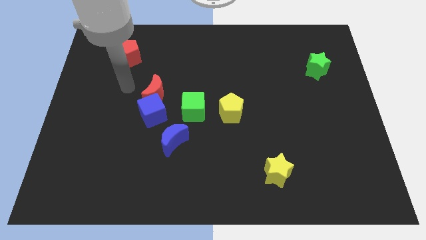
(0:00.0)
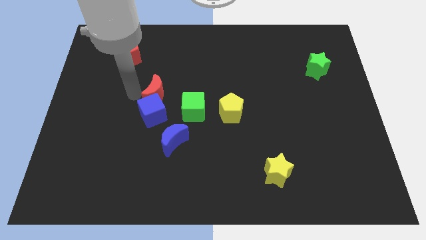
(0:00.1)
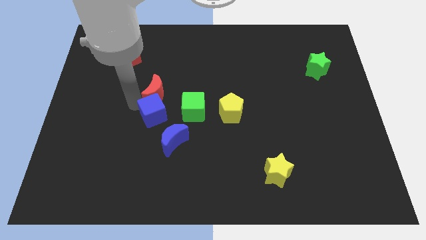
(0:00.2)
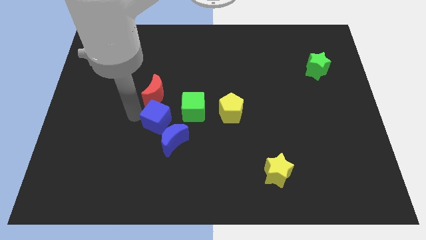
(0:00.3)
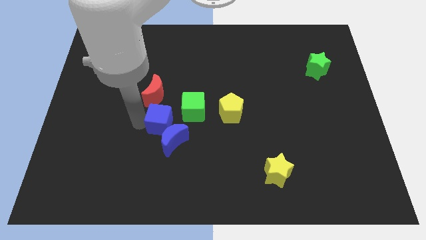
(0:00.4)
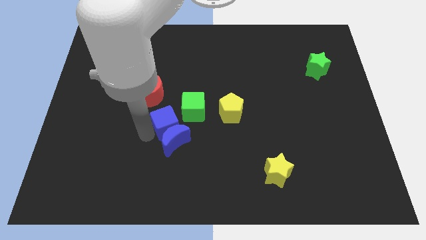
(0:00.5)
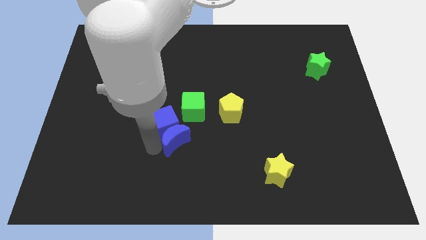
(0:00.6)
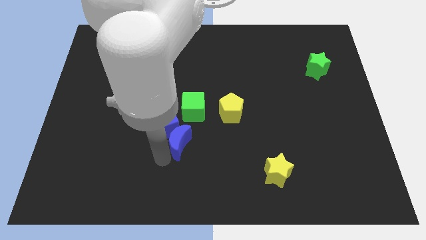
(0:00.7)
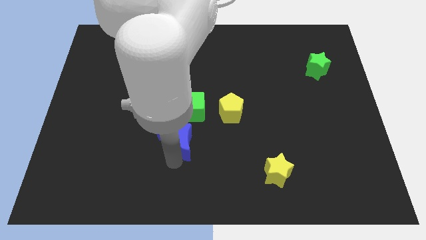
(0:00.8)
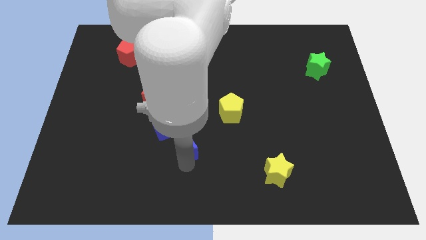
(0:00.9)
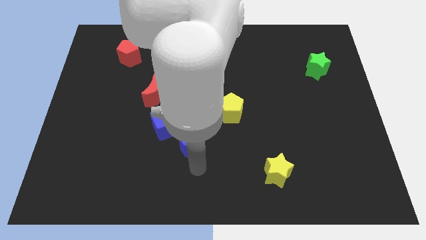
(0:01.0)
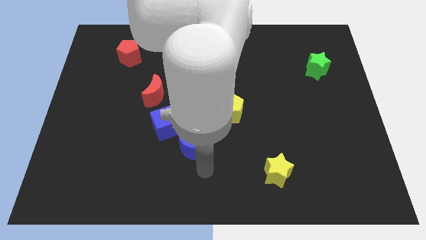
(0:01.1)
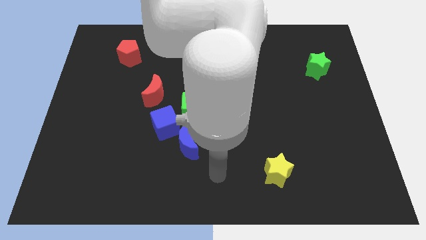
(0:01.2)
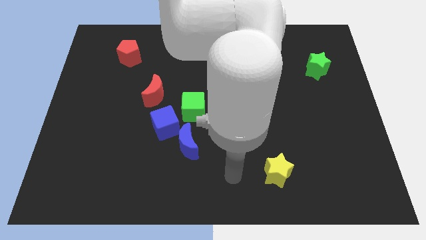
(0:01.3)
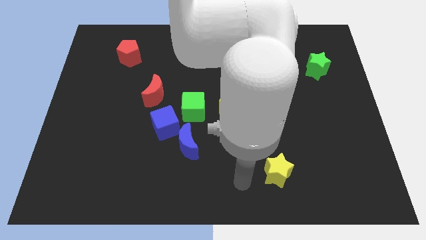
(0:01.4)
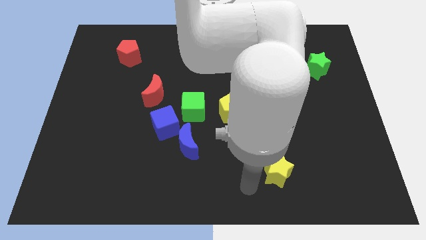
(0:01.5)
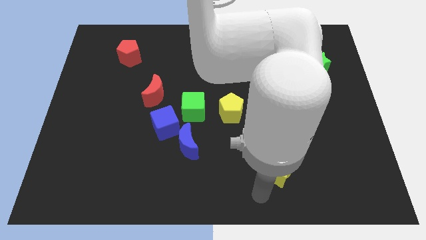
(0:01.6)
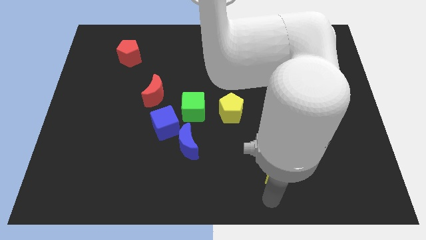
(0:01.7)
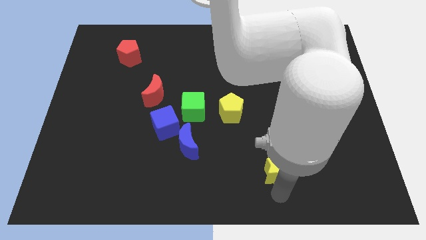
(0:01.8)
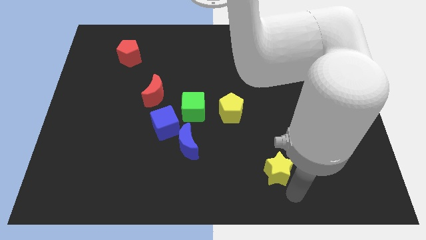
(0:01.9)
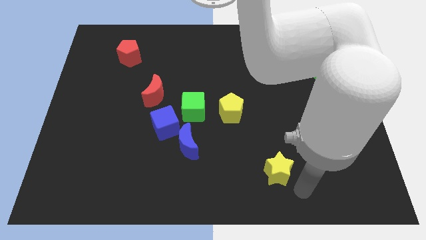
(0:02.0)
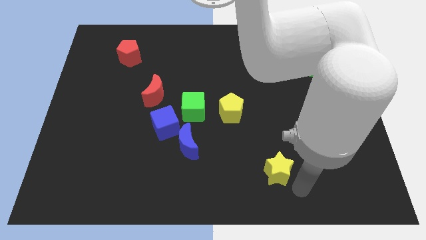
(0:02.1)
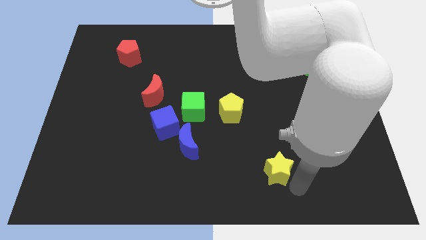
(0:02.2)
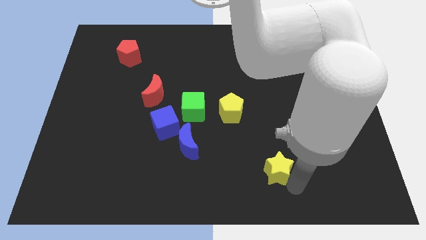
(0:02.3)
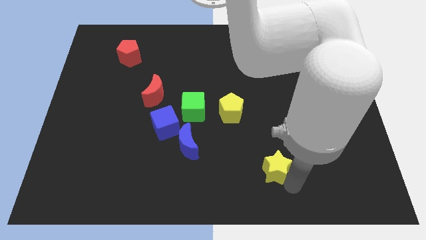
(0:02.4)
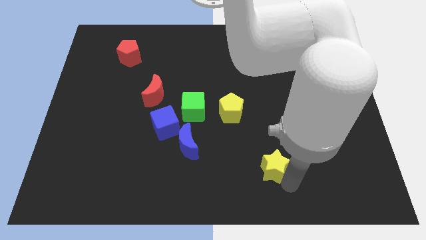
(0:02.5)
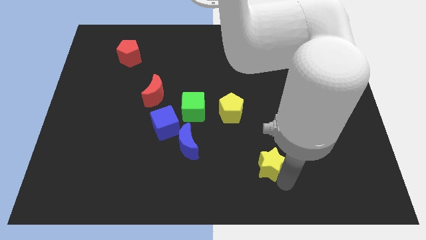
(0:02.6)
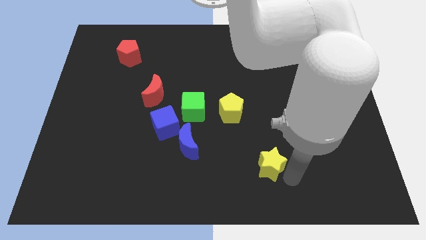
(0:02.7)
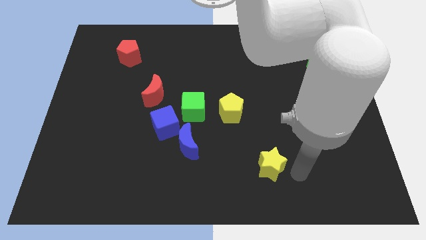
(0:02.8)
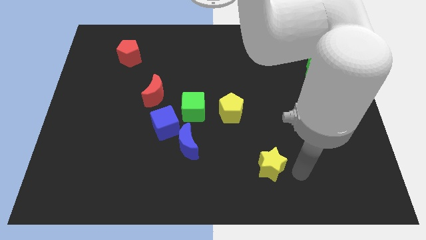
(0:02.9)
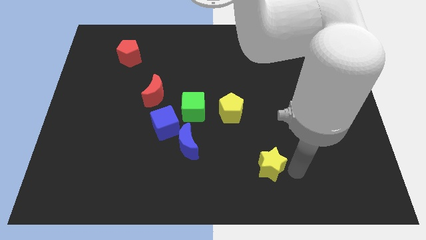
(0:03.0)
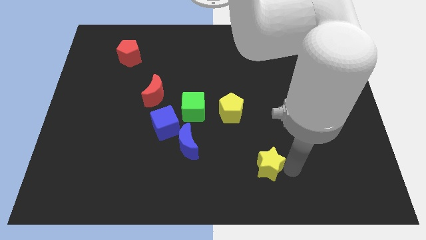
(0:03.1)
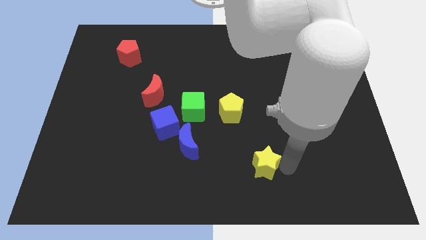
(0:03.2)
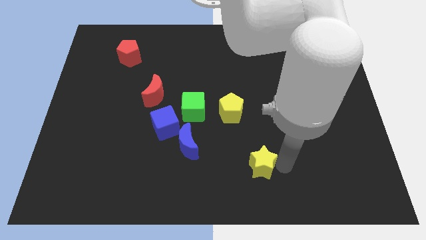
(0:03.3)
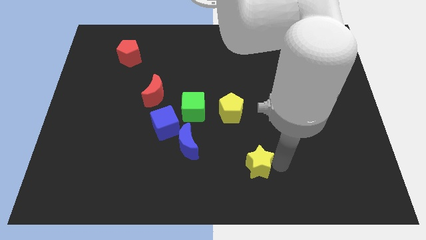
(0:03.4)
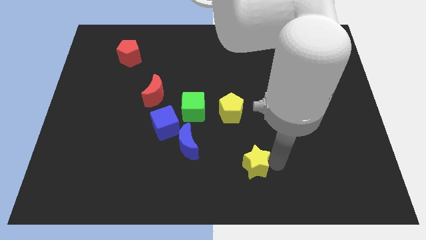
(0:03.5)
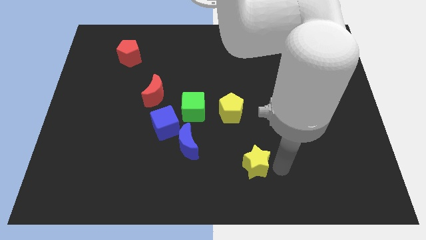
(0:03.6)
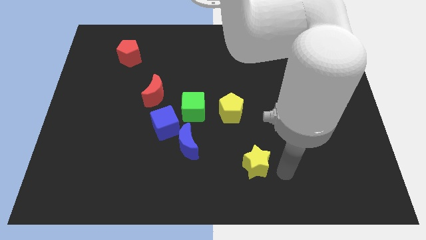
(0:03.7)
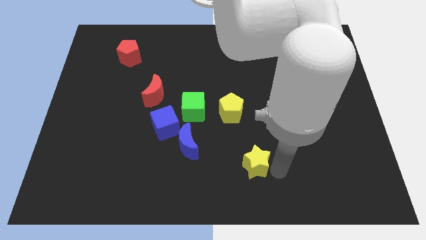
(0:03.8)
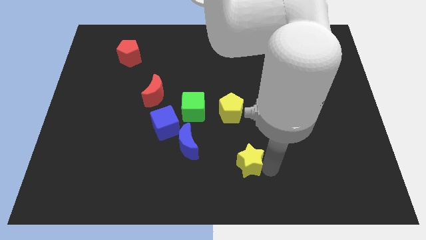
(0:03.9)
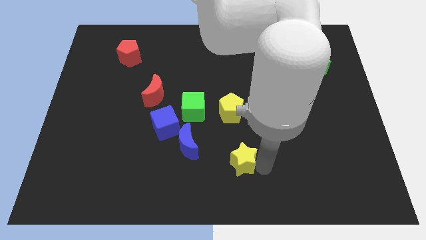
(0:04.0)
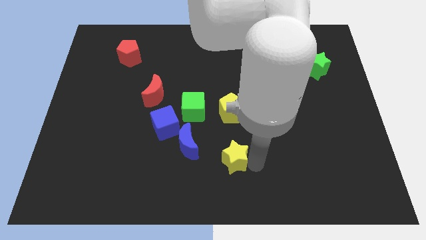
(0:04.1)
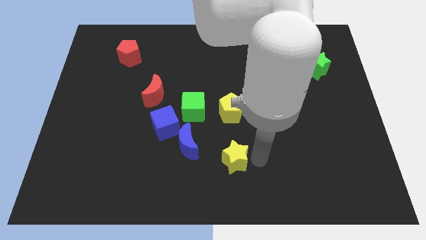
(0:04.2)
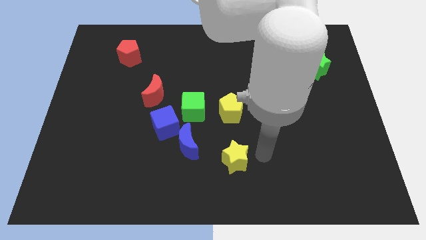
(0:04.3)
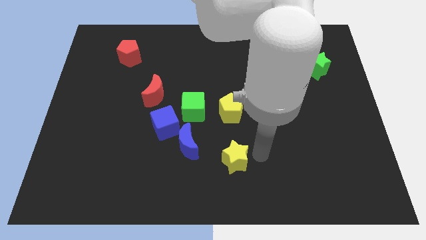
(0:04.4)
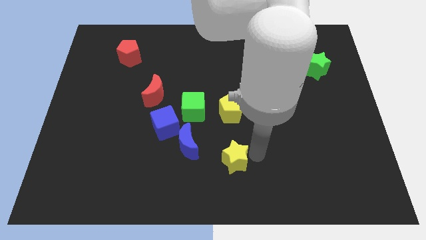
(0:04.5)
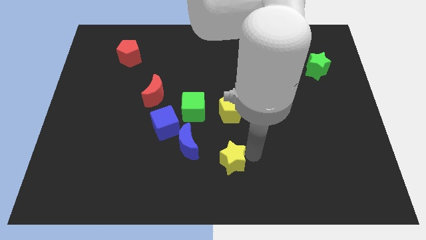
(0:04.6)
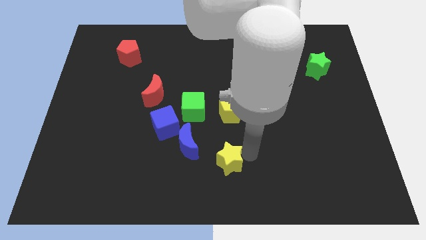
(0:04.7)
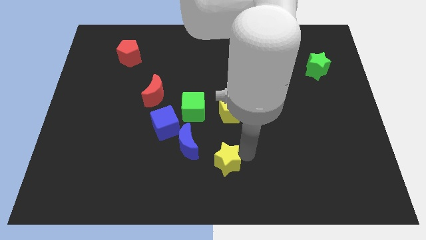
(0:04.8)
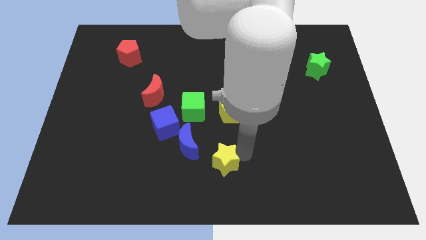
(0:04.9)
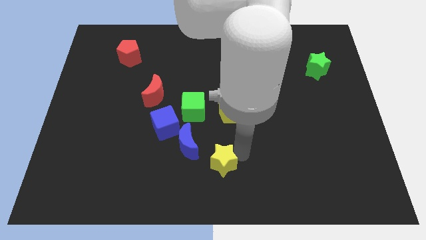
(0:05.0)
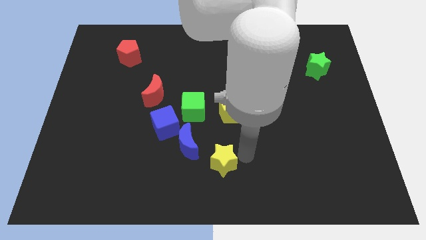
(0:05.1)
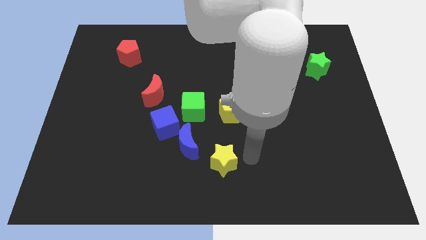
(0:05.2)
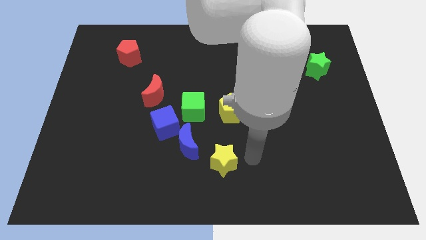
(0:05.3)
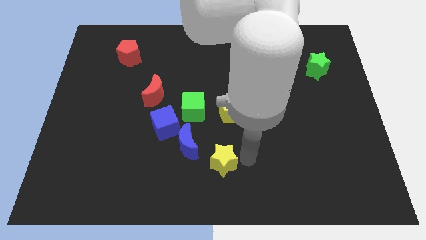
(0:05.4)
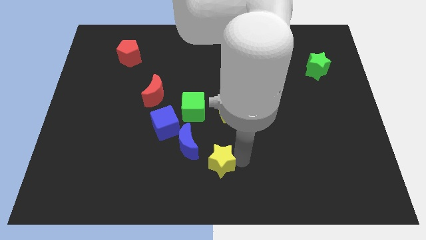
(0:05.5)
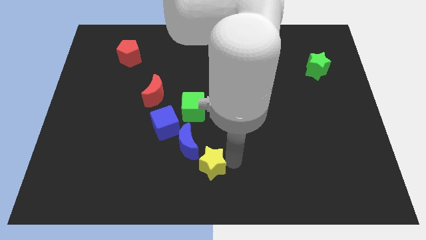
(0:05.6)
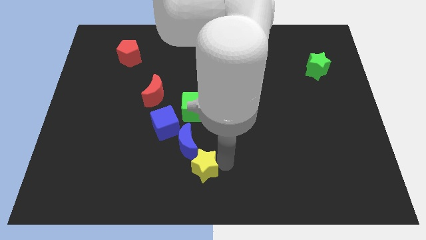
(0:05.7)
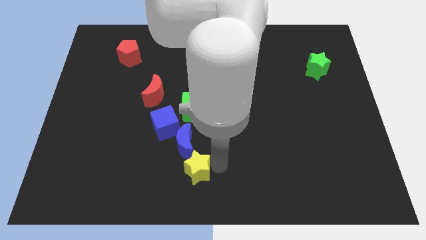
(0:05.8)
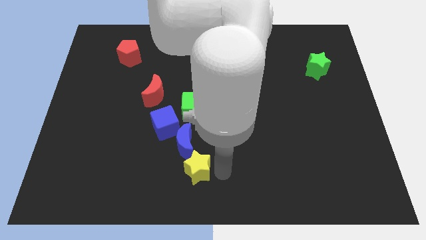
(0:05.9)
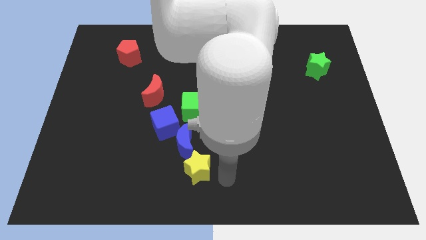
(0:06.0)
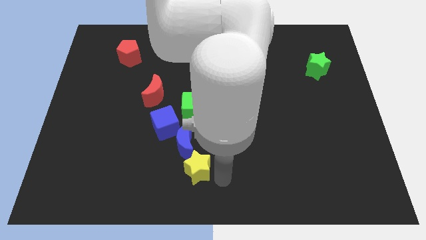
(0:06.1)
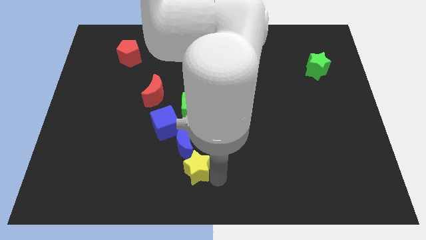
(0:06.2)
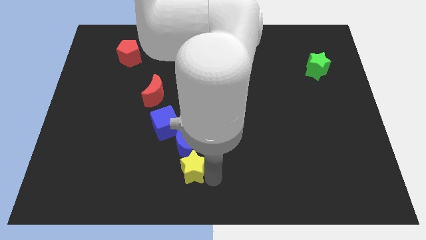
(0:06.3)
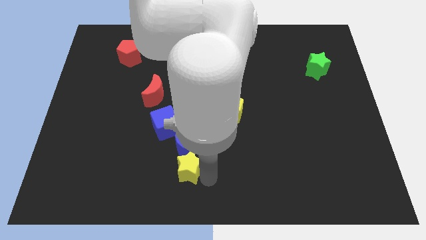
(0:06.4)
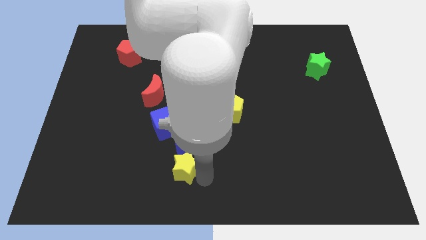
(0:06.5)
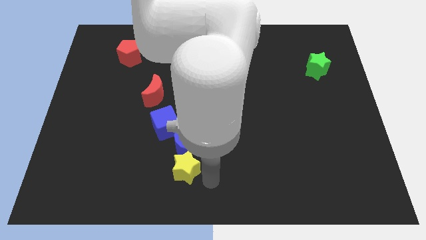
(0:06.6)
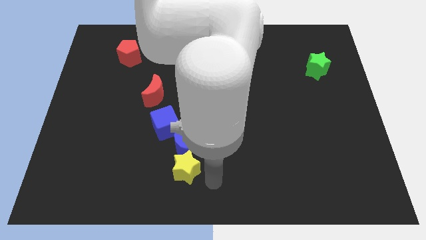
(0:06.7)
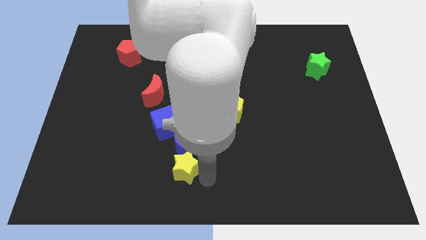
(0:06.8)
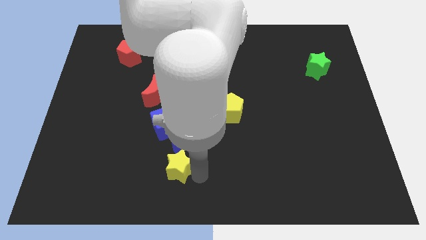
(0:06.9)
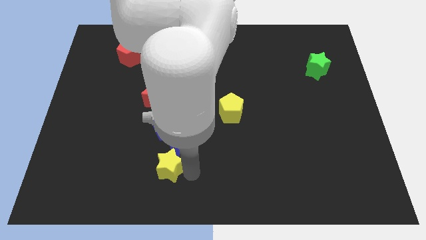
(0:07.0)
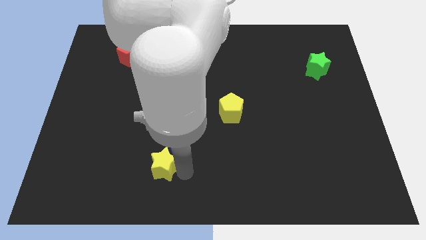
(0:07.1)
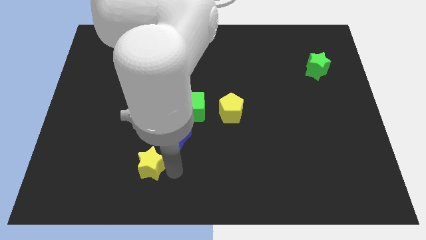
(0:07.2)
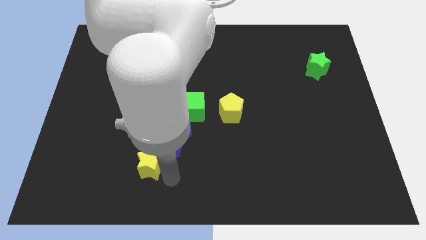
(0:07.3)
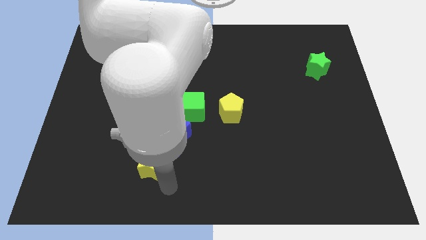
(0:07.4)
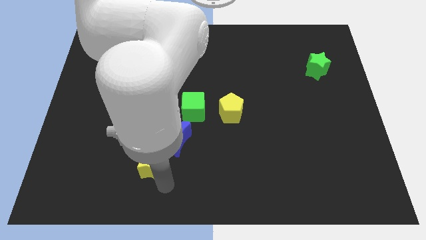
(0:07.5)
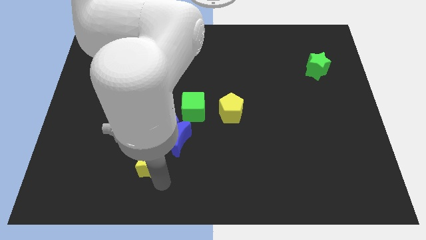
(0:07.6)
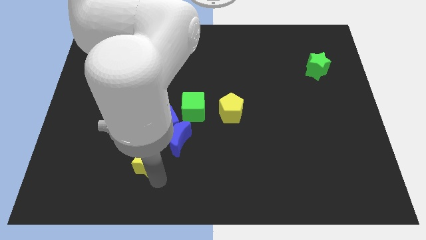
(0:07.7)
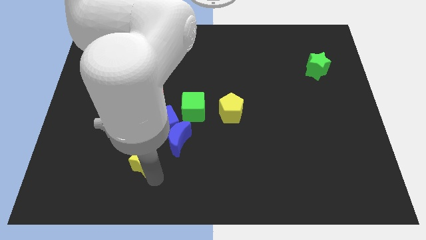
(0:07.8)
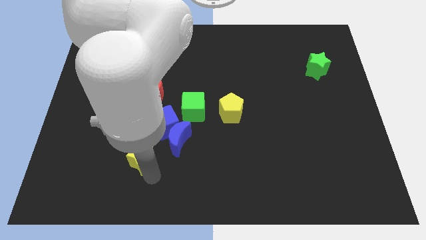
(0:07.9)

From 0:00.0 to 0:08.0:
slide the yellow star to the left of the blue moon
